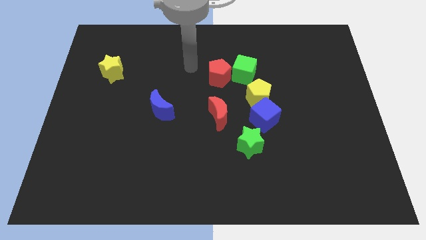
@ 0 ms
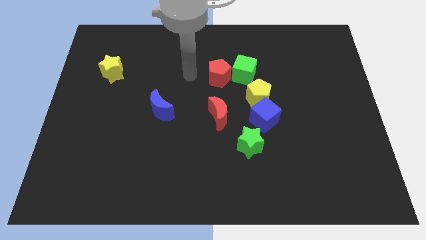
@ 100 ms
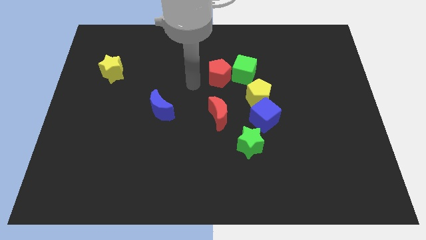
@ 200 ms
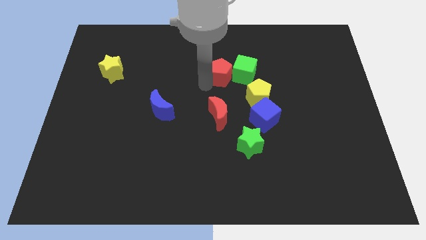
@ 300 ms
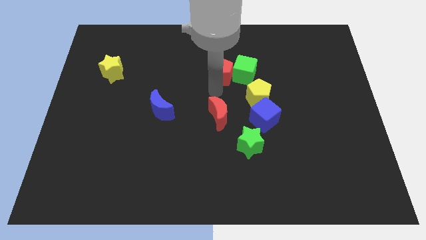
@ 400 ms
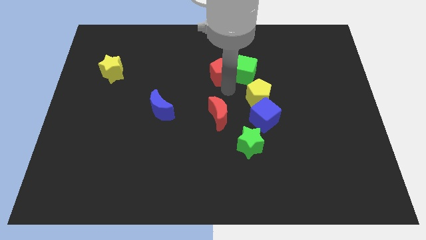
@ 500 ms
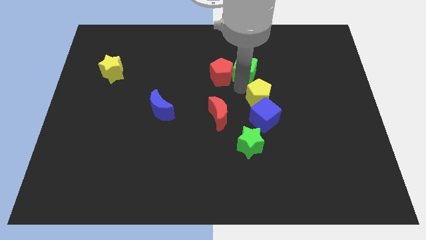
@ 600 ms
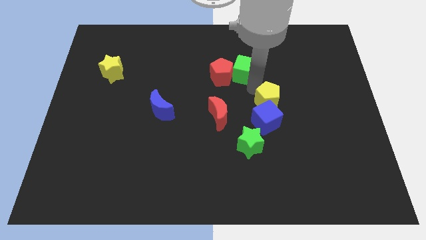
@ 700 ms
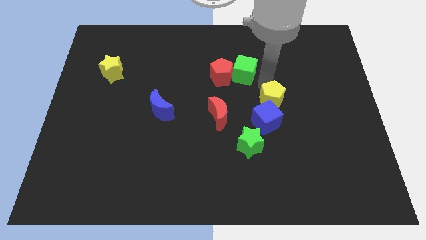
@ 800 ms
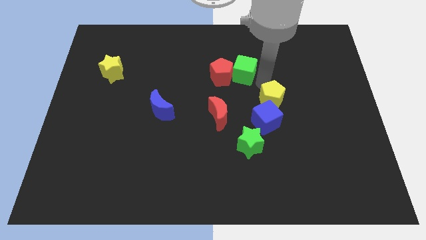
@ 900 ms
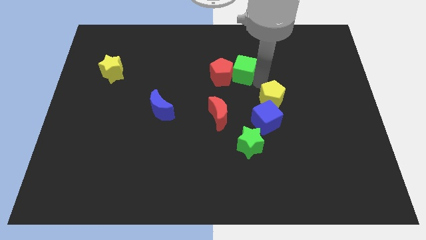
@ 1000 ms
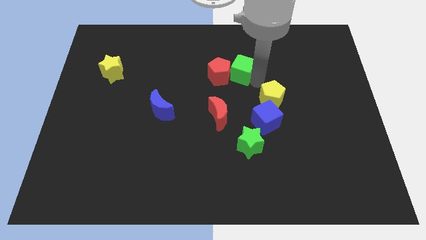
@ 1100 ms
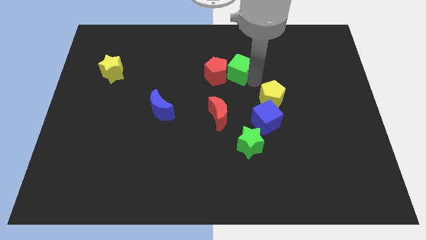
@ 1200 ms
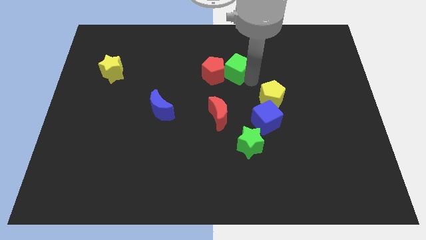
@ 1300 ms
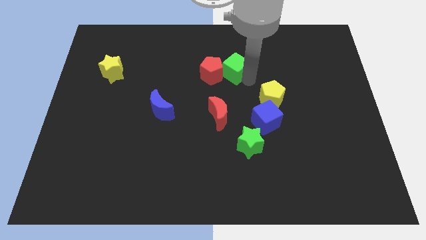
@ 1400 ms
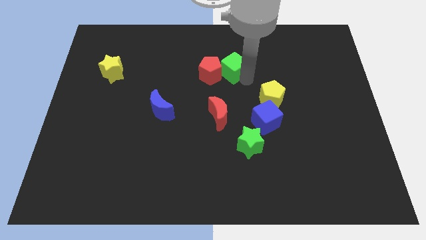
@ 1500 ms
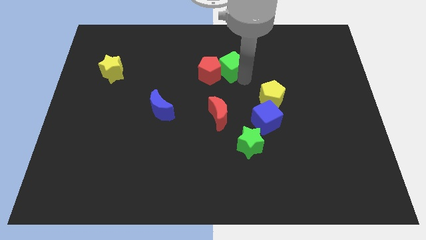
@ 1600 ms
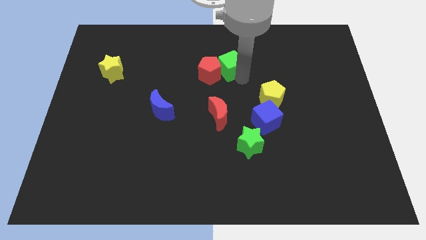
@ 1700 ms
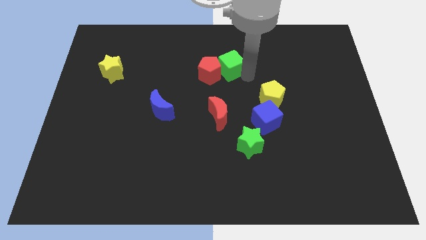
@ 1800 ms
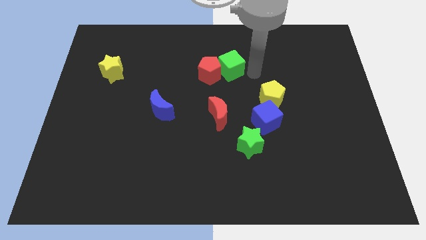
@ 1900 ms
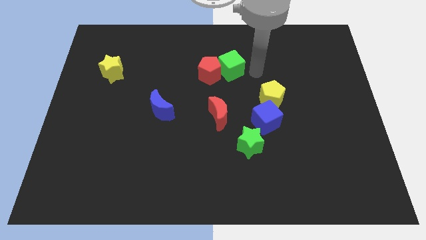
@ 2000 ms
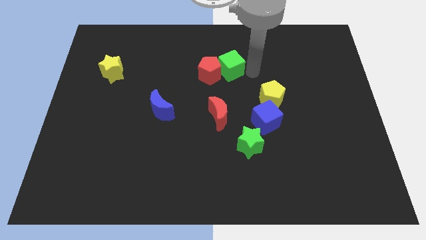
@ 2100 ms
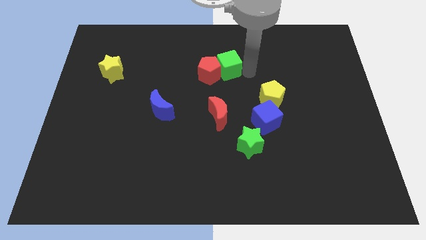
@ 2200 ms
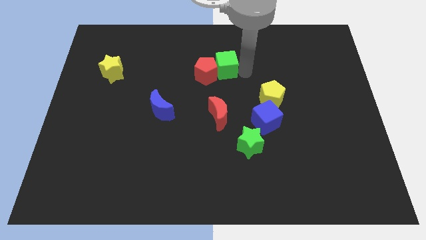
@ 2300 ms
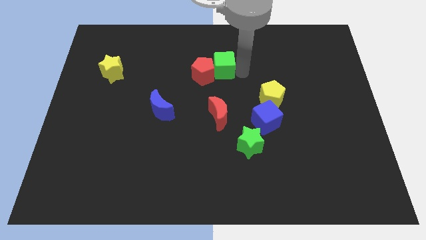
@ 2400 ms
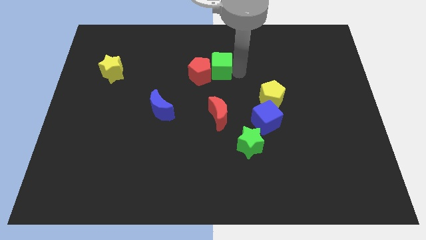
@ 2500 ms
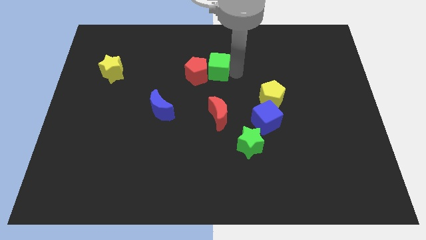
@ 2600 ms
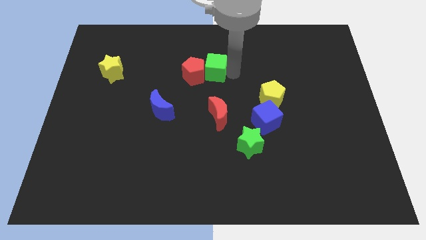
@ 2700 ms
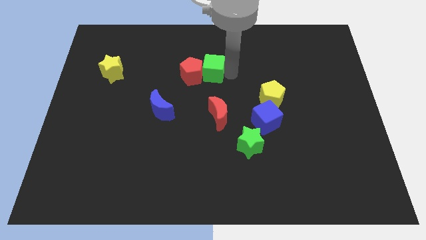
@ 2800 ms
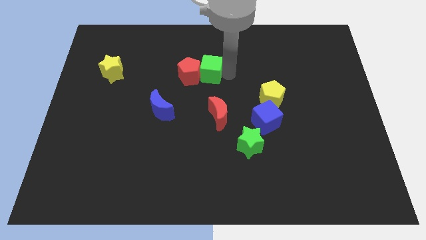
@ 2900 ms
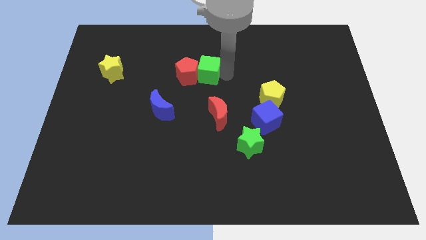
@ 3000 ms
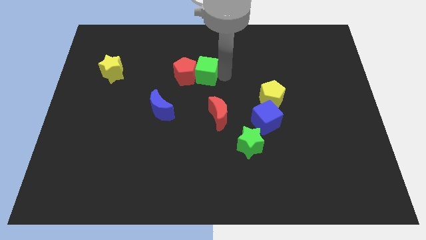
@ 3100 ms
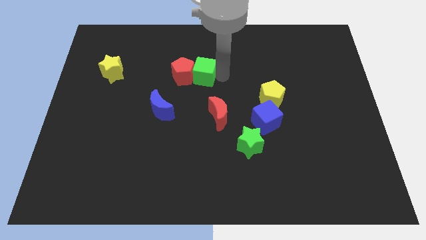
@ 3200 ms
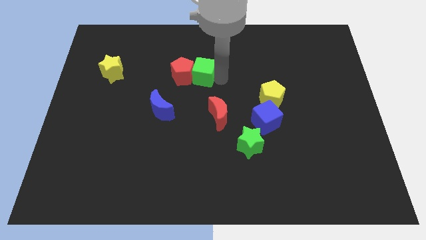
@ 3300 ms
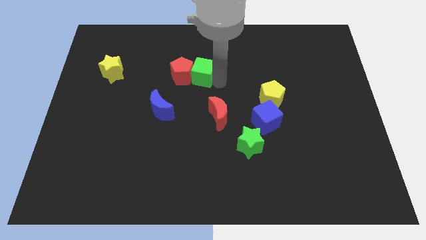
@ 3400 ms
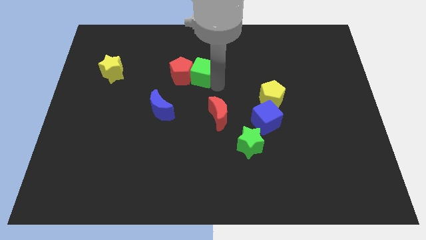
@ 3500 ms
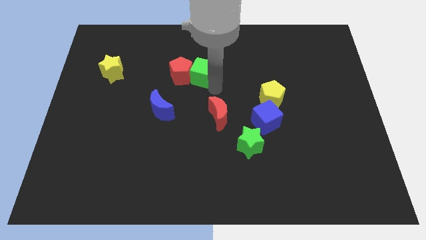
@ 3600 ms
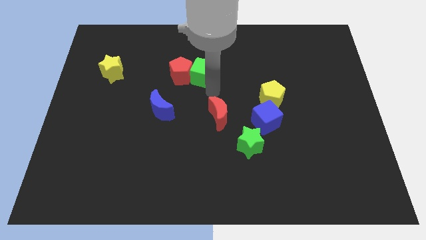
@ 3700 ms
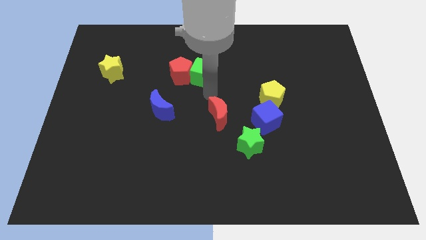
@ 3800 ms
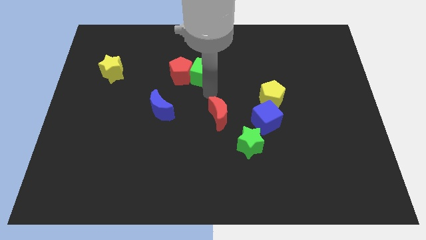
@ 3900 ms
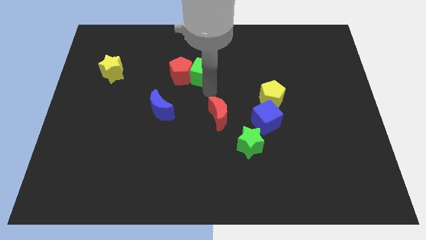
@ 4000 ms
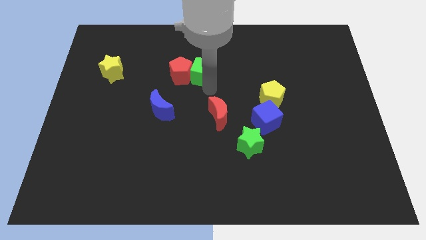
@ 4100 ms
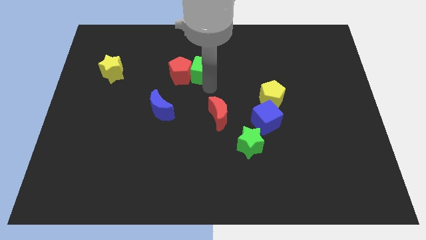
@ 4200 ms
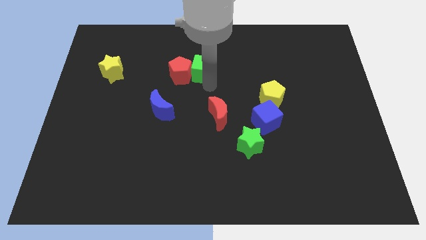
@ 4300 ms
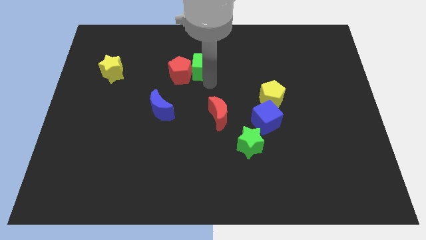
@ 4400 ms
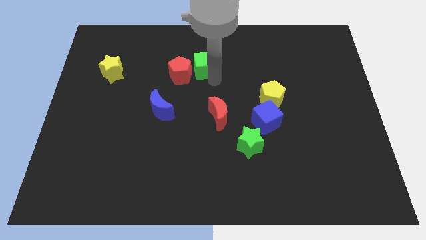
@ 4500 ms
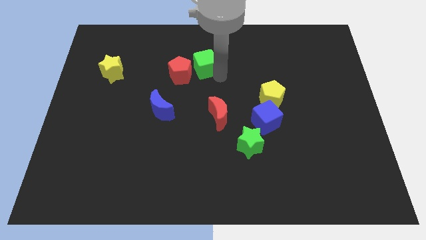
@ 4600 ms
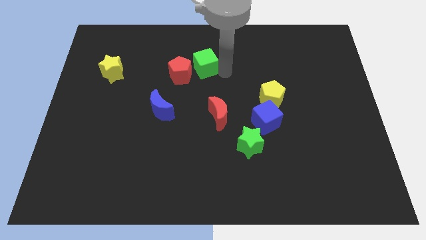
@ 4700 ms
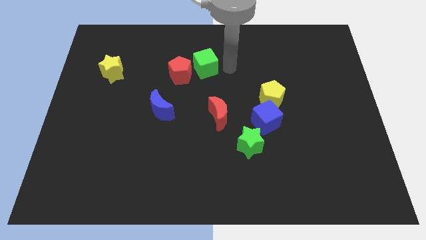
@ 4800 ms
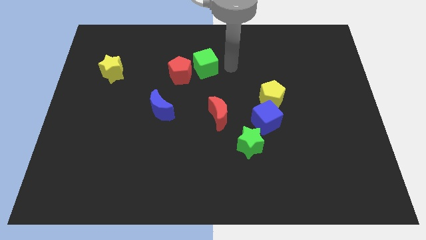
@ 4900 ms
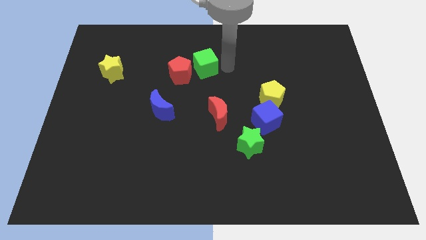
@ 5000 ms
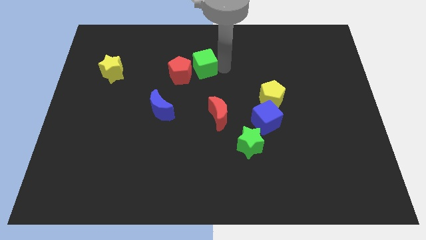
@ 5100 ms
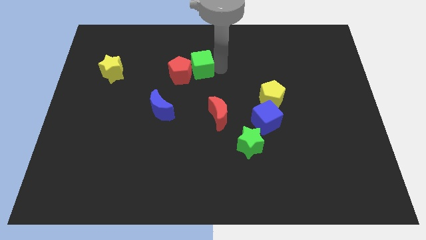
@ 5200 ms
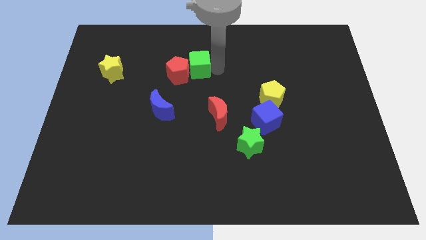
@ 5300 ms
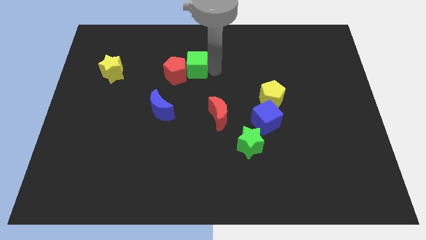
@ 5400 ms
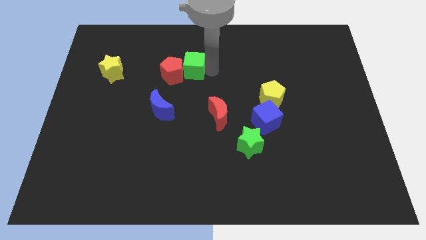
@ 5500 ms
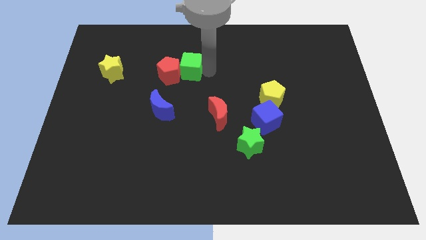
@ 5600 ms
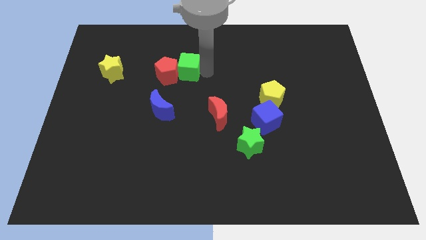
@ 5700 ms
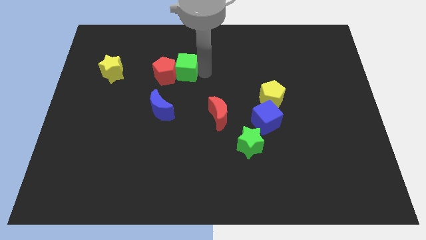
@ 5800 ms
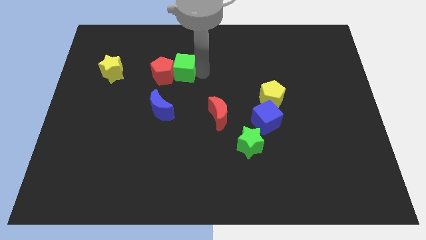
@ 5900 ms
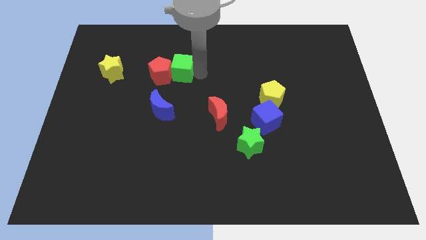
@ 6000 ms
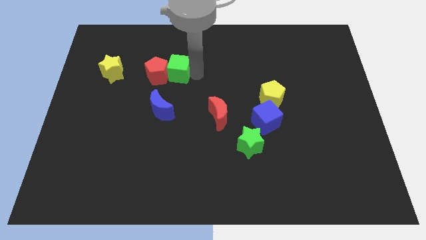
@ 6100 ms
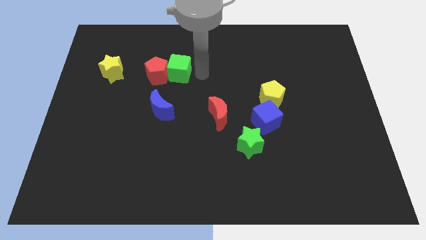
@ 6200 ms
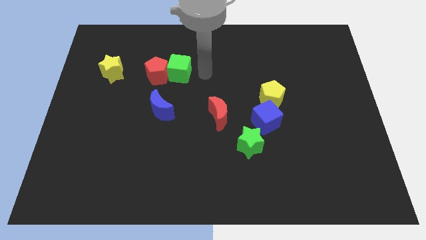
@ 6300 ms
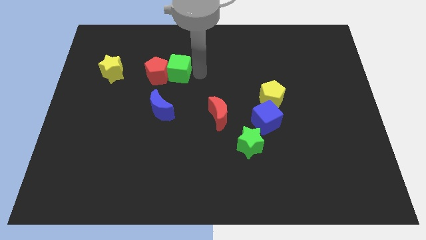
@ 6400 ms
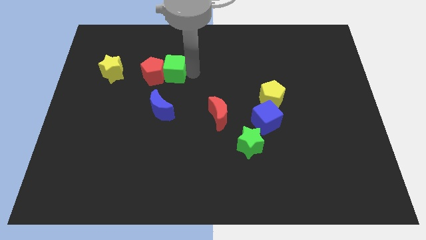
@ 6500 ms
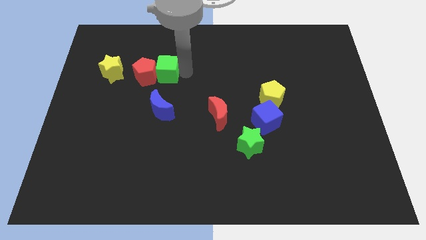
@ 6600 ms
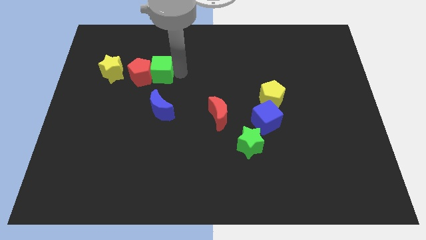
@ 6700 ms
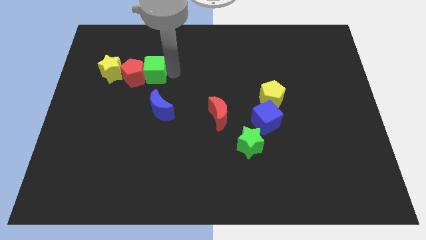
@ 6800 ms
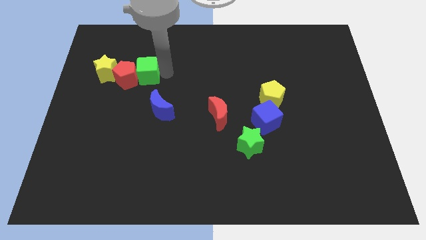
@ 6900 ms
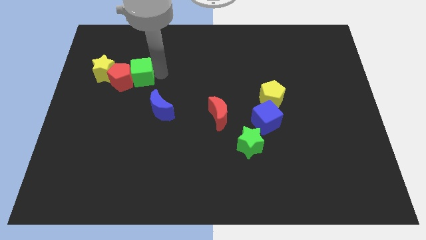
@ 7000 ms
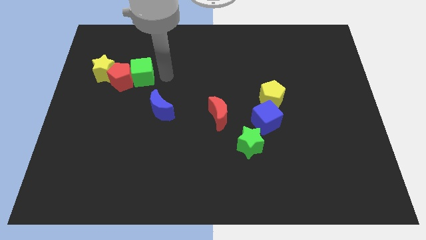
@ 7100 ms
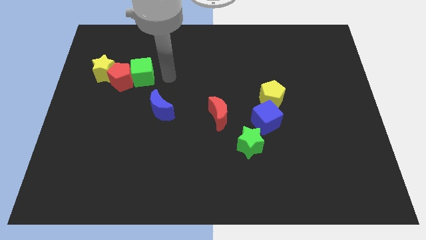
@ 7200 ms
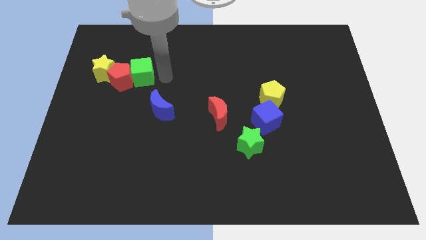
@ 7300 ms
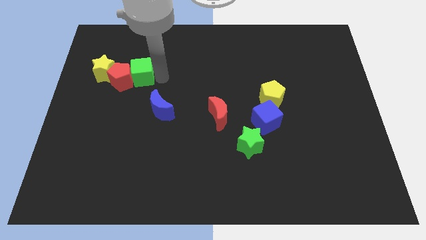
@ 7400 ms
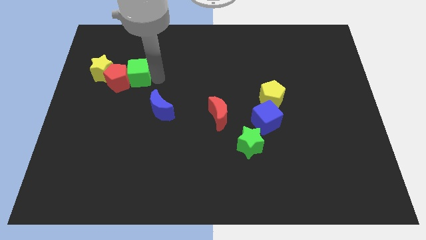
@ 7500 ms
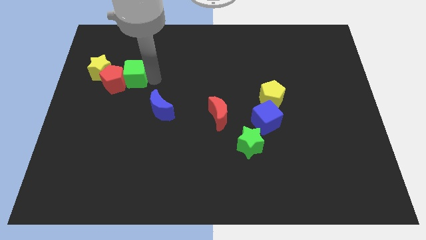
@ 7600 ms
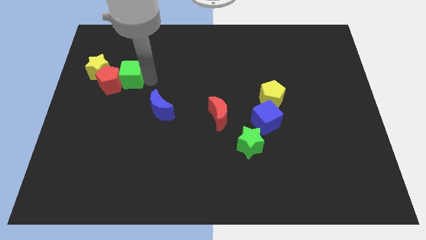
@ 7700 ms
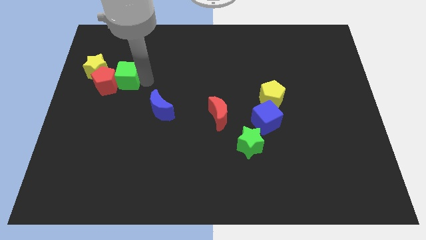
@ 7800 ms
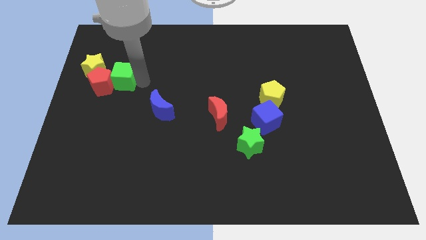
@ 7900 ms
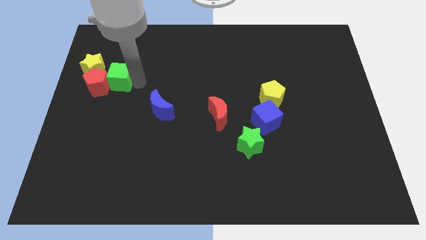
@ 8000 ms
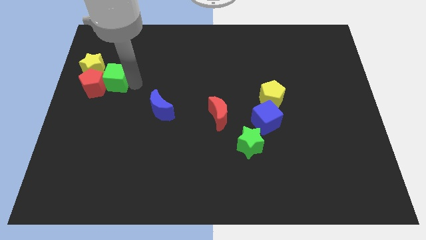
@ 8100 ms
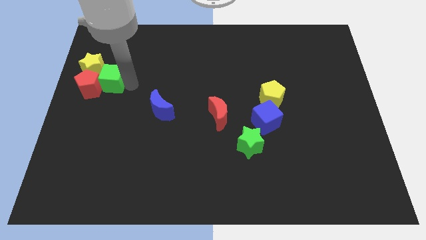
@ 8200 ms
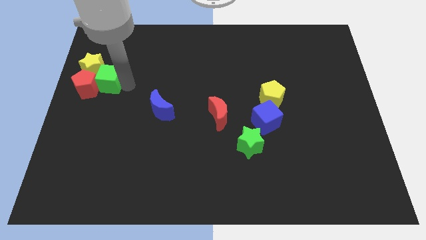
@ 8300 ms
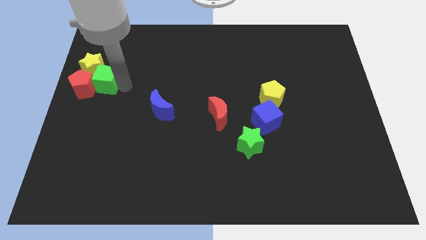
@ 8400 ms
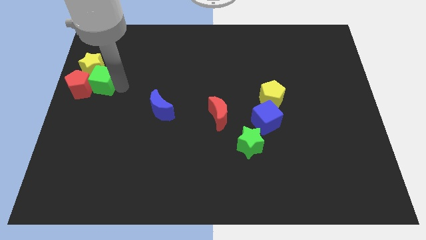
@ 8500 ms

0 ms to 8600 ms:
move the green cube next to the yellow star
